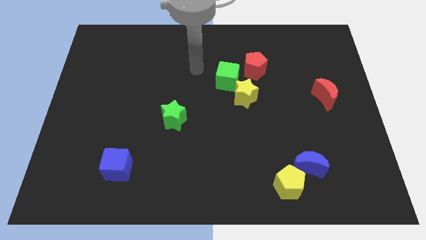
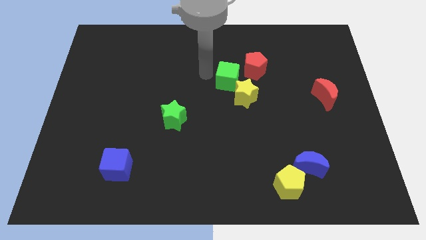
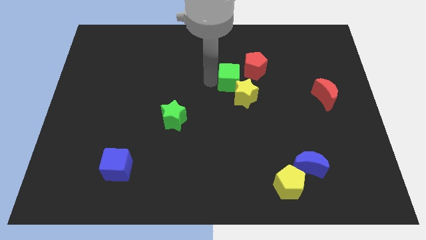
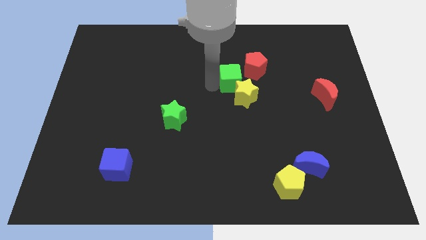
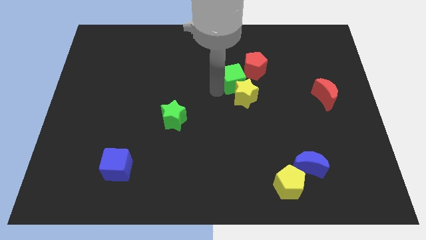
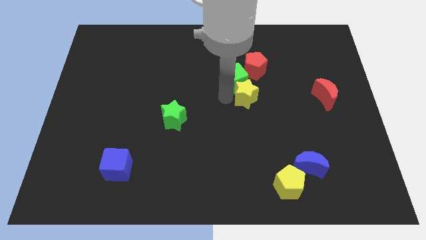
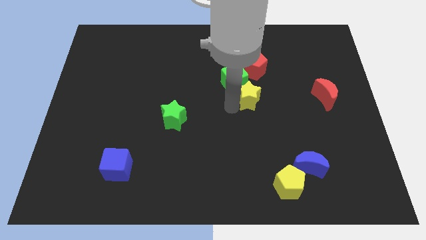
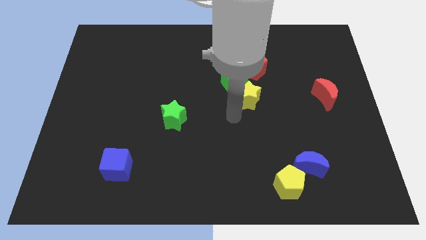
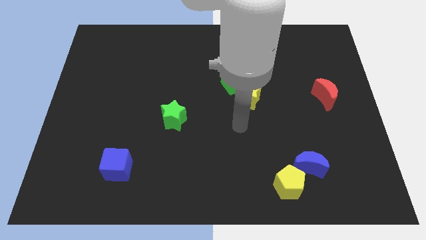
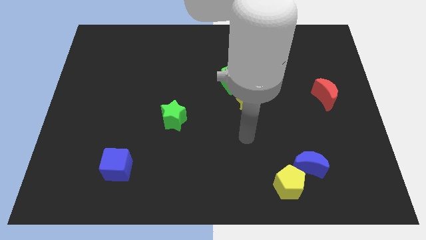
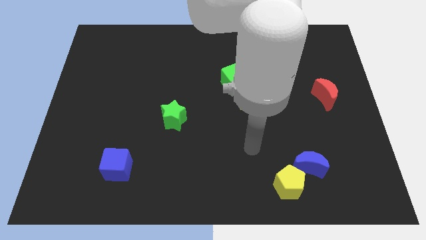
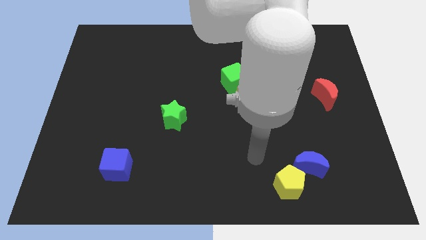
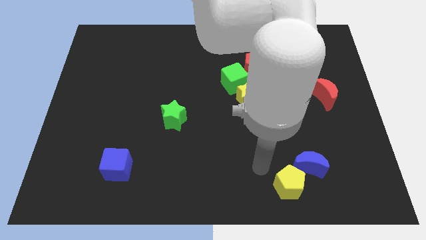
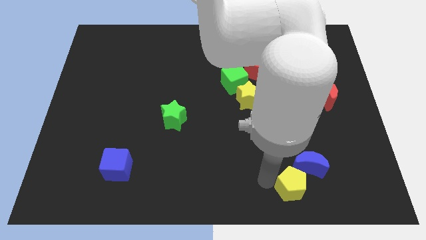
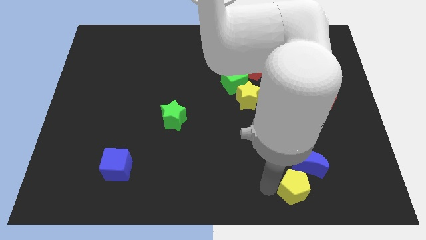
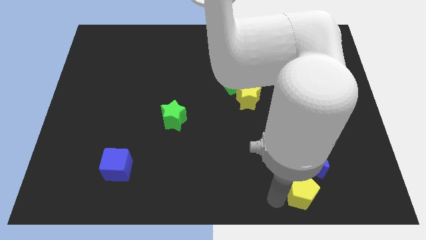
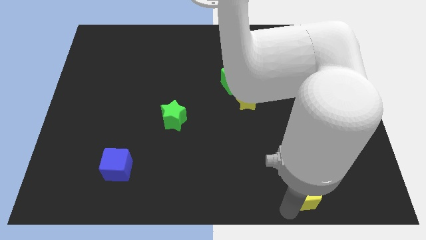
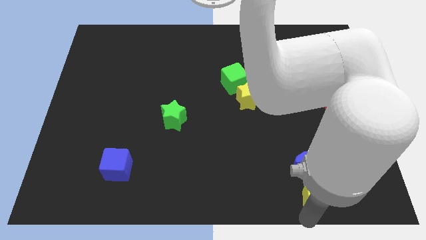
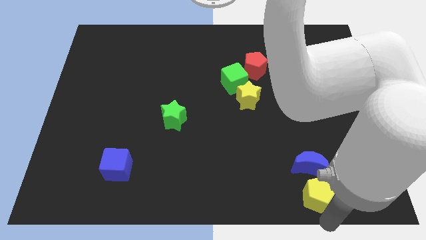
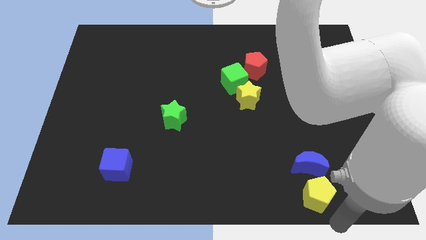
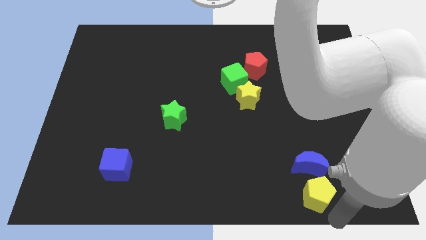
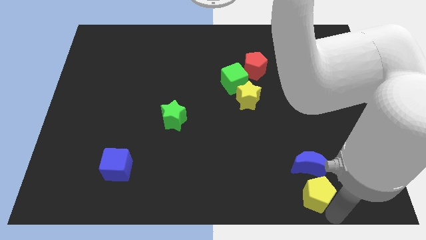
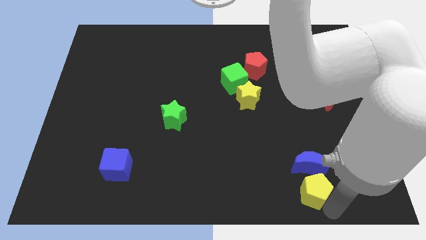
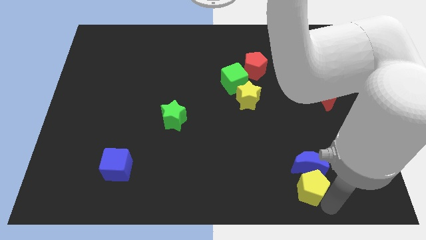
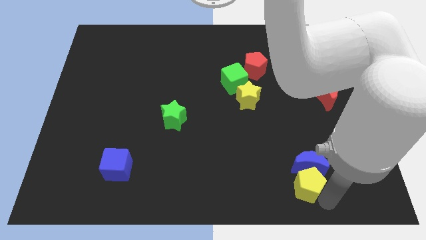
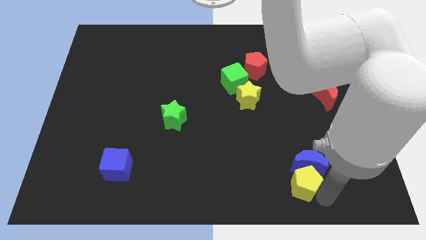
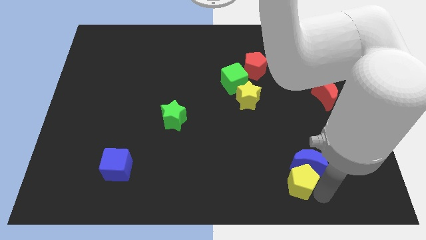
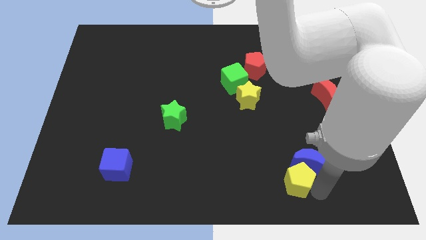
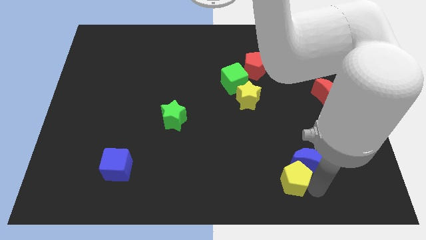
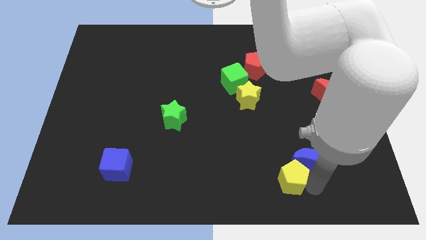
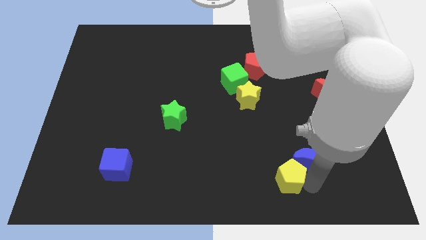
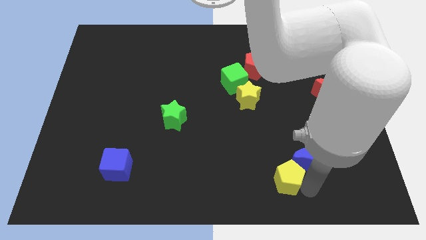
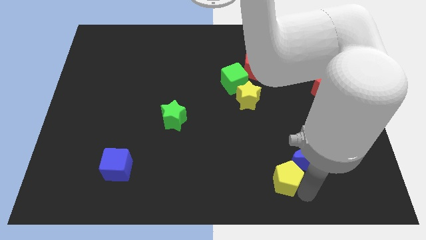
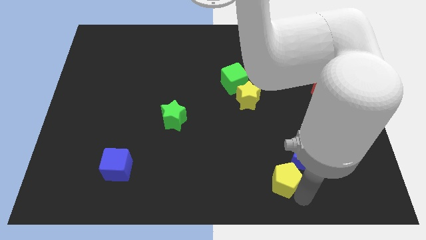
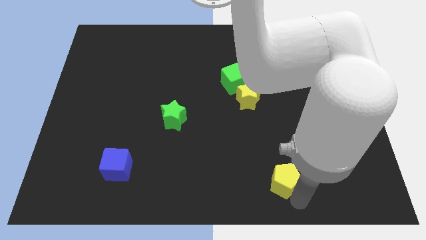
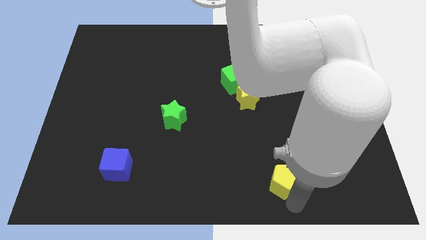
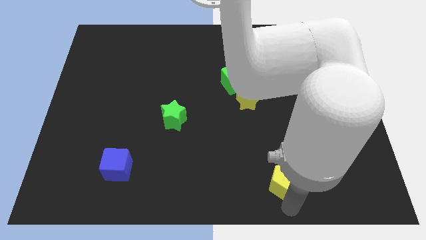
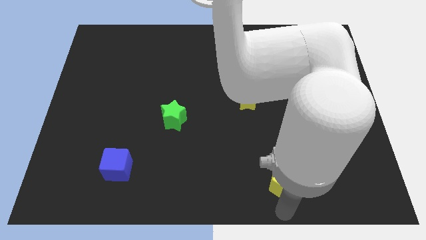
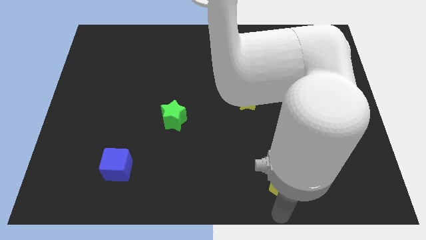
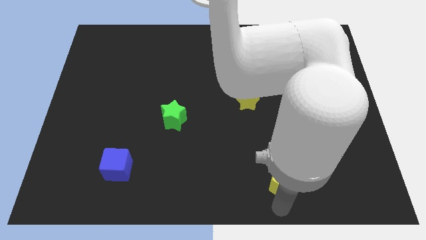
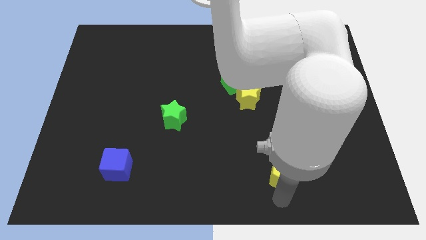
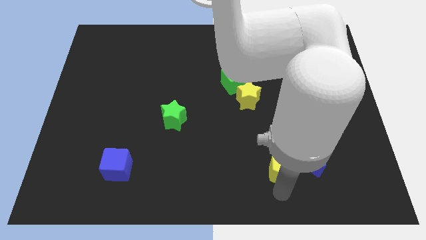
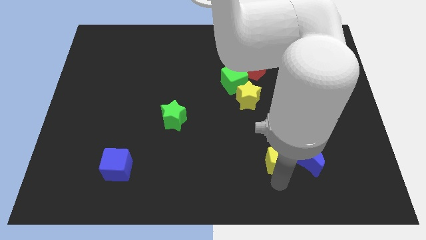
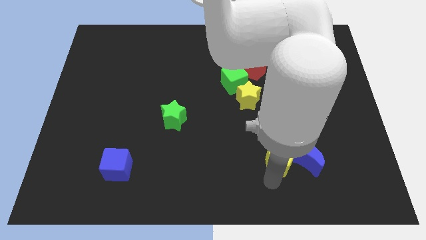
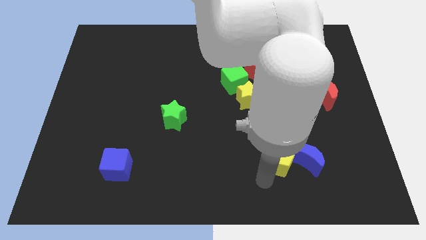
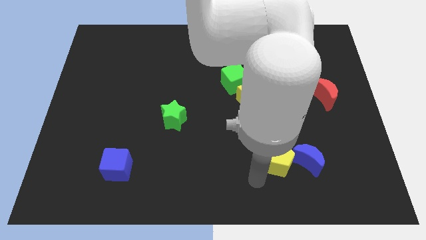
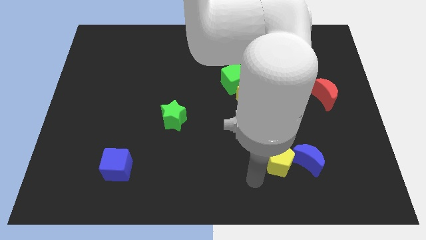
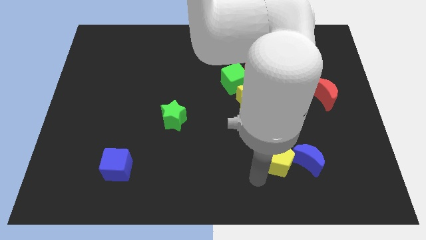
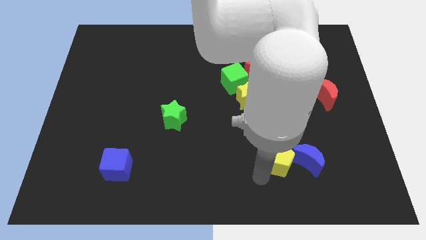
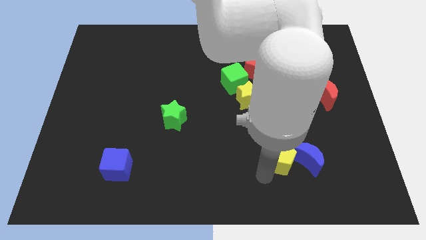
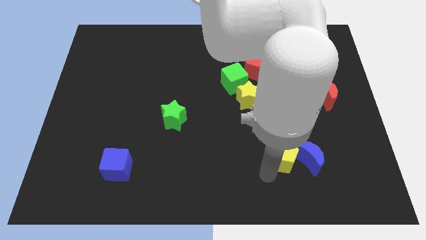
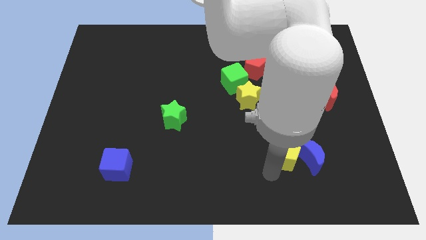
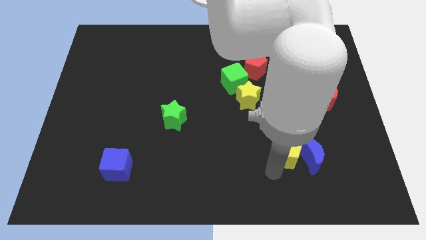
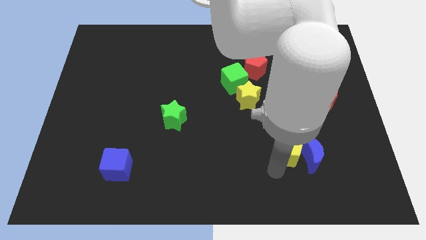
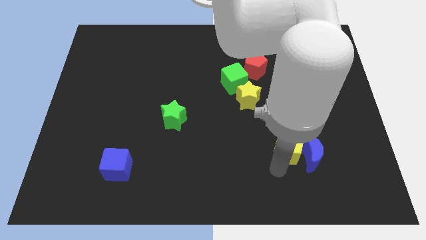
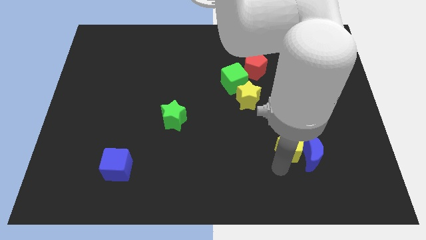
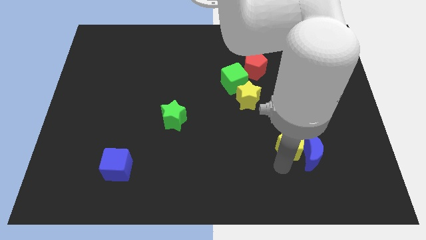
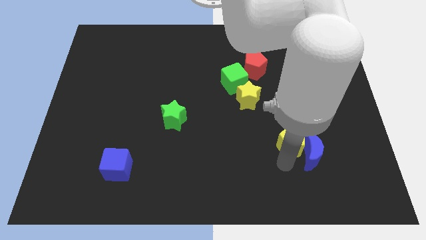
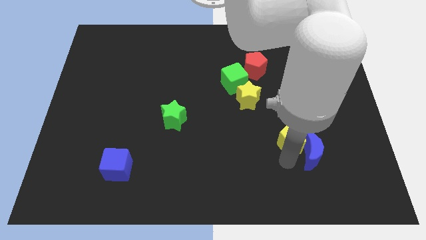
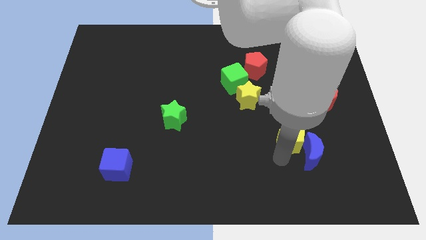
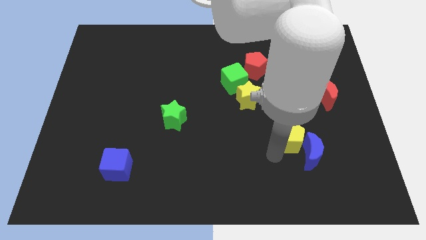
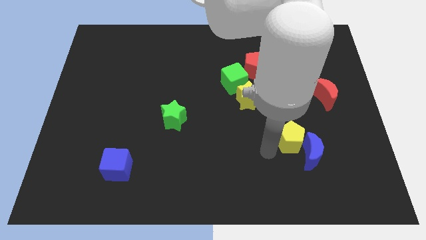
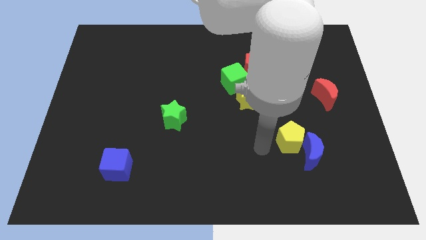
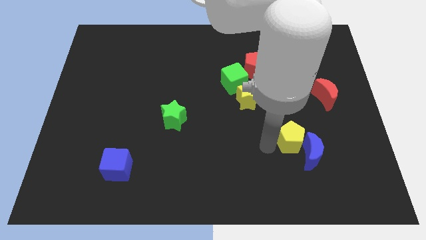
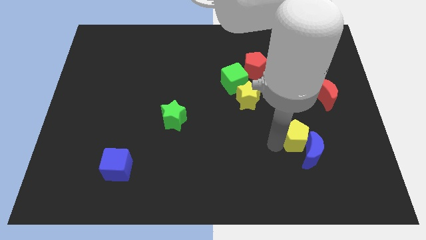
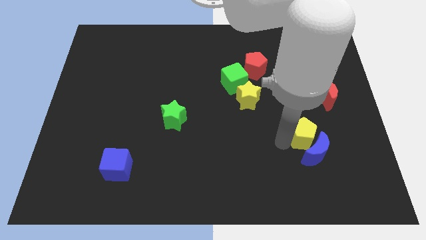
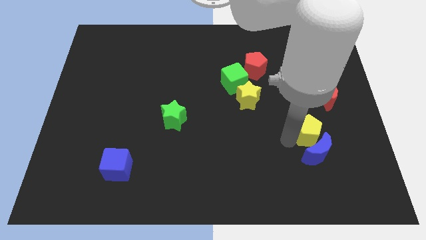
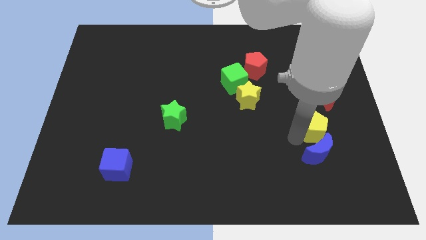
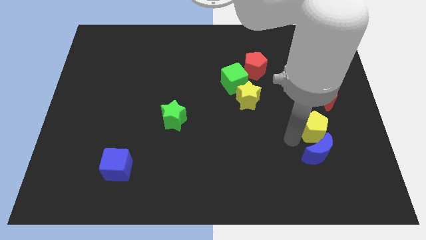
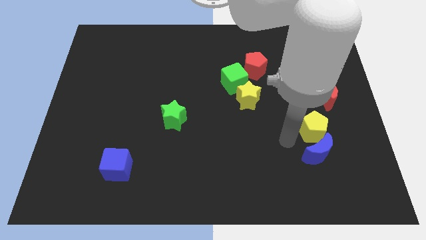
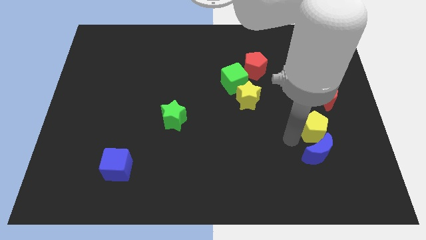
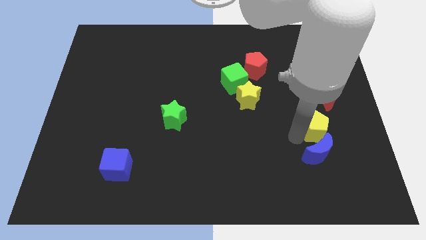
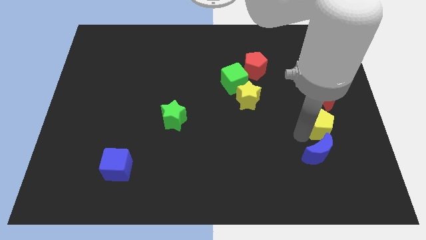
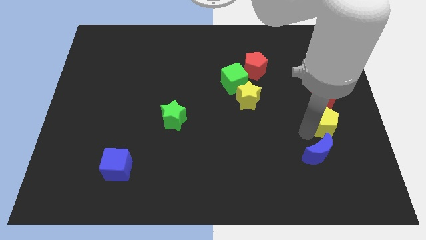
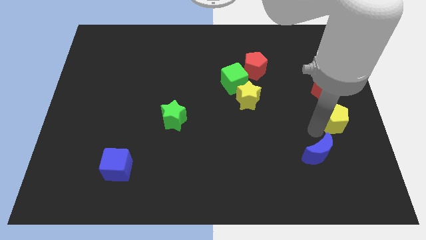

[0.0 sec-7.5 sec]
put the yellow pentagon to the center right
